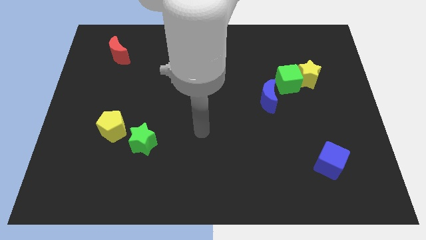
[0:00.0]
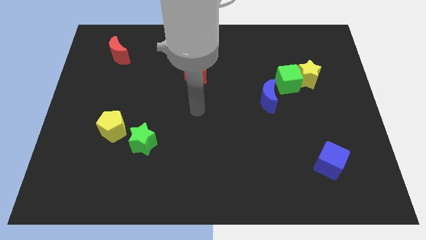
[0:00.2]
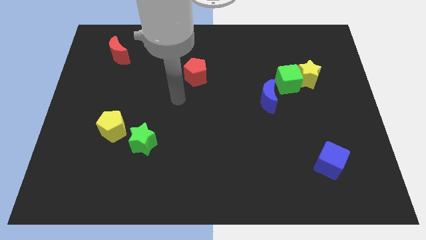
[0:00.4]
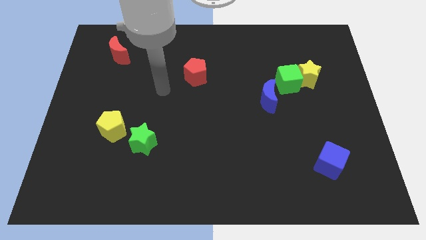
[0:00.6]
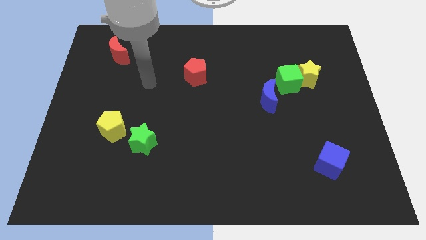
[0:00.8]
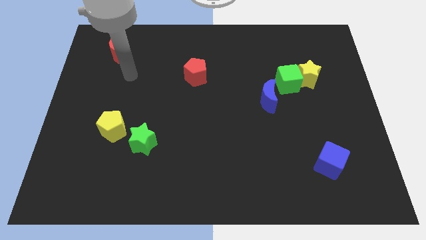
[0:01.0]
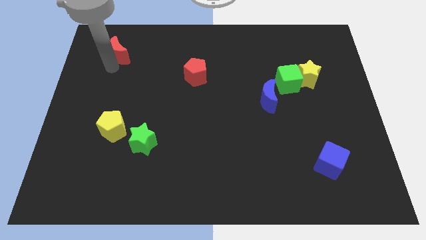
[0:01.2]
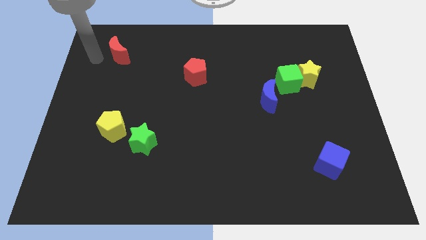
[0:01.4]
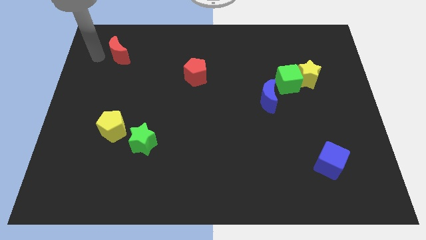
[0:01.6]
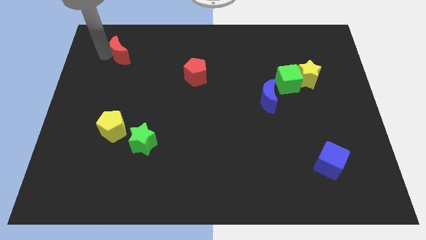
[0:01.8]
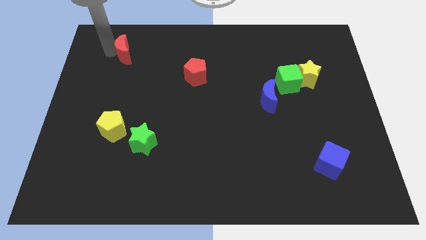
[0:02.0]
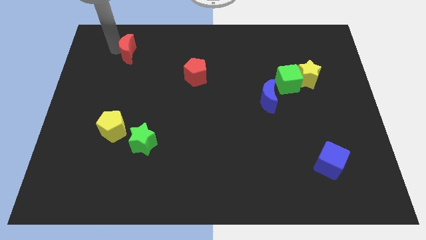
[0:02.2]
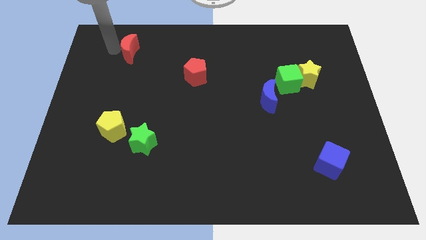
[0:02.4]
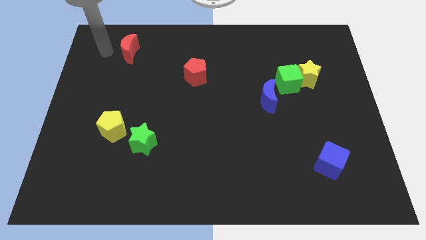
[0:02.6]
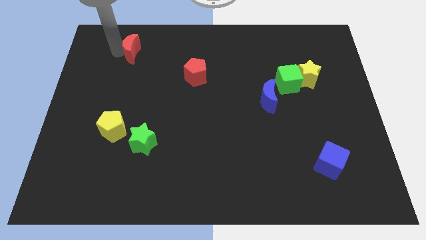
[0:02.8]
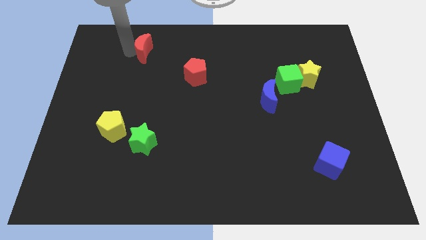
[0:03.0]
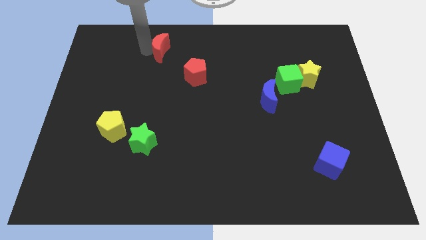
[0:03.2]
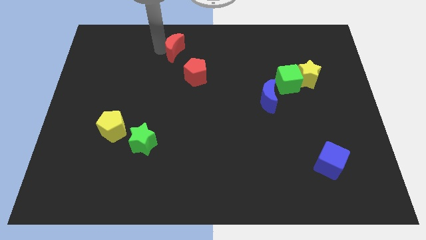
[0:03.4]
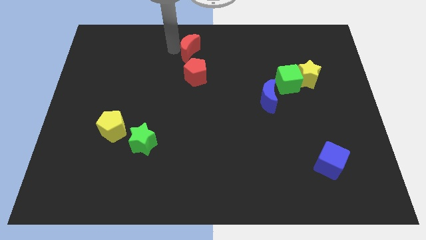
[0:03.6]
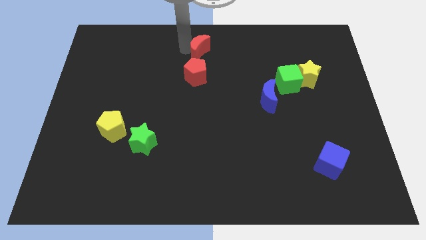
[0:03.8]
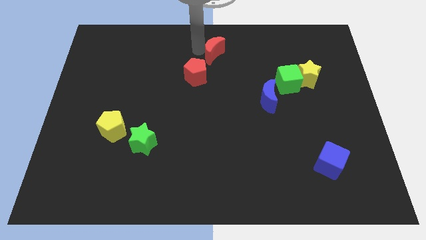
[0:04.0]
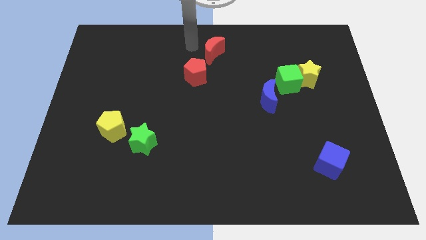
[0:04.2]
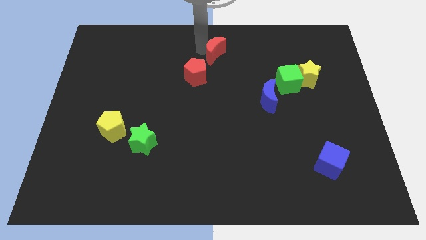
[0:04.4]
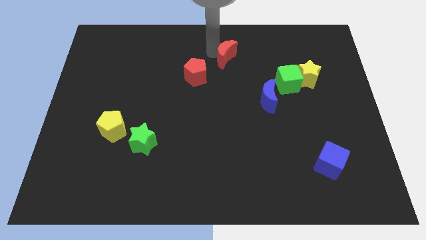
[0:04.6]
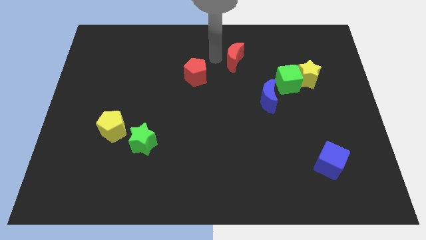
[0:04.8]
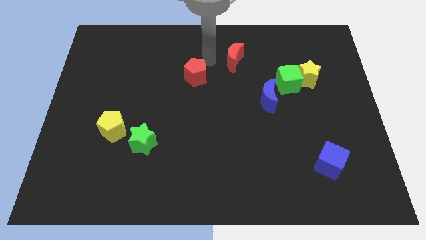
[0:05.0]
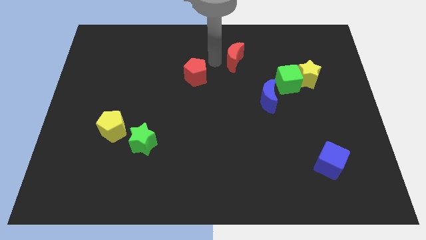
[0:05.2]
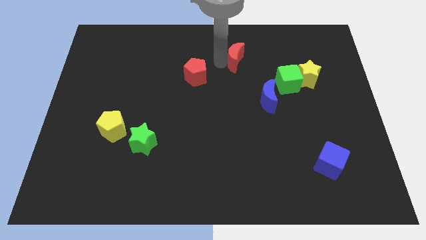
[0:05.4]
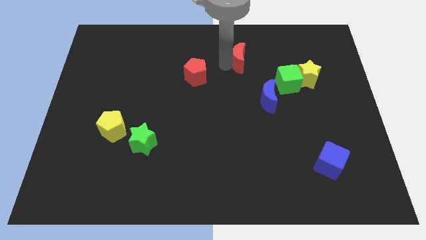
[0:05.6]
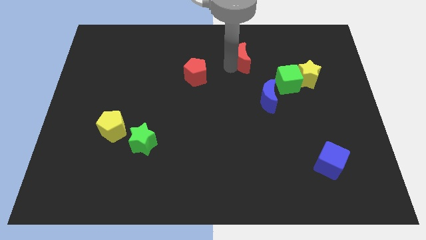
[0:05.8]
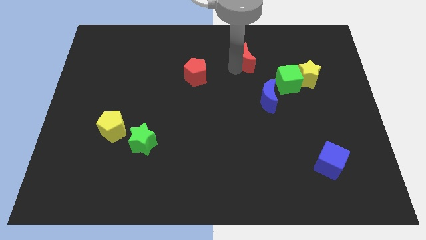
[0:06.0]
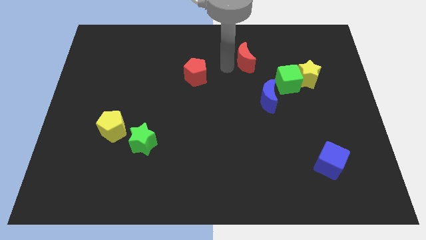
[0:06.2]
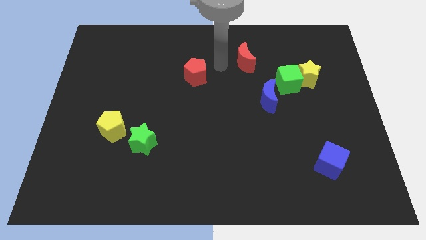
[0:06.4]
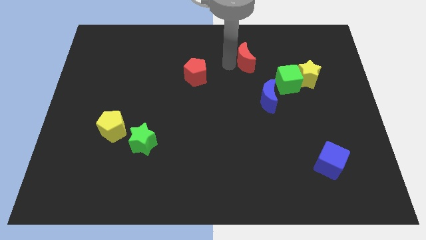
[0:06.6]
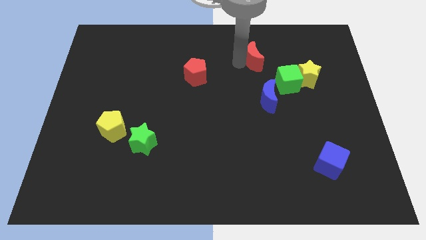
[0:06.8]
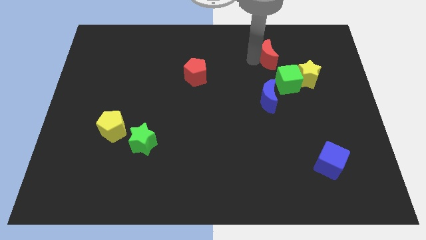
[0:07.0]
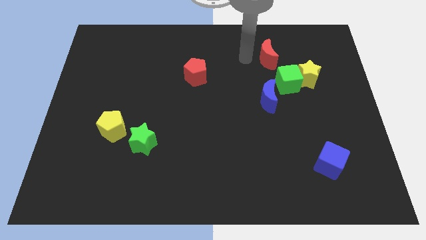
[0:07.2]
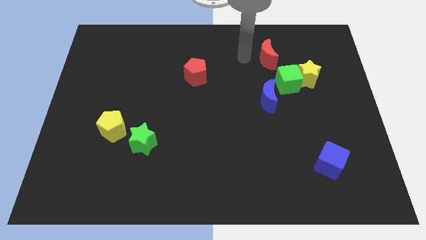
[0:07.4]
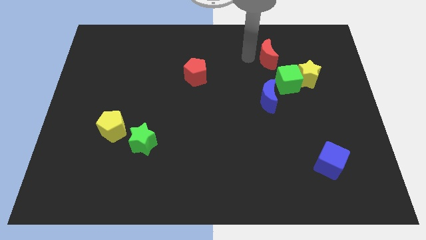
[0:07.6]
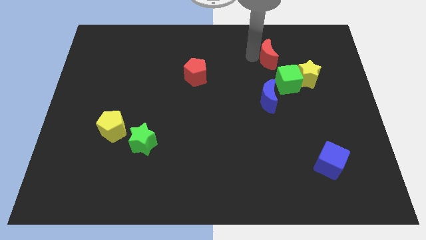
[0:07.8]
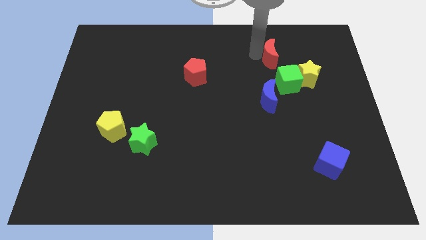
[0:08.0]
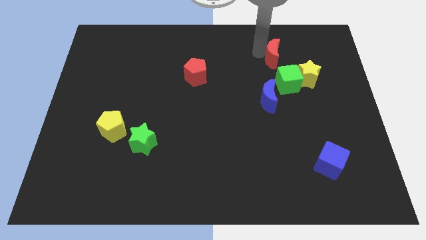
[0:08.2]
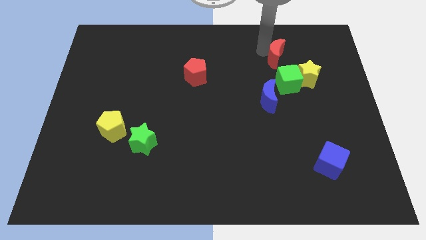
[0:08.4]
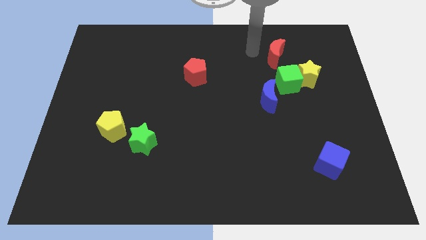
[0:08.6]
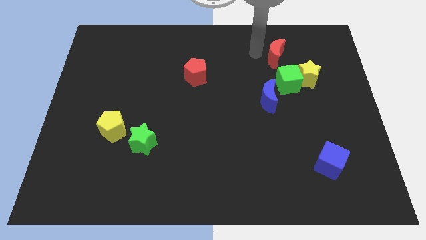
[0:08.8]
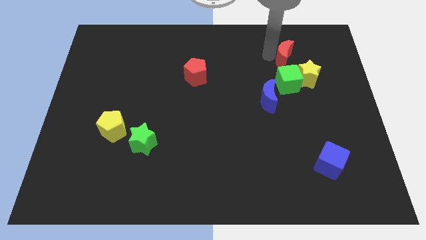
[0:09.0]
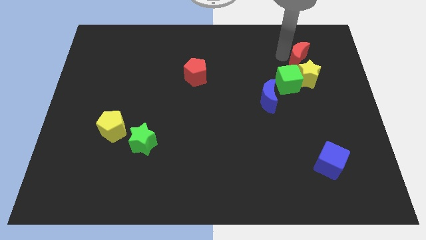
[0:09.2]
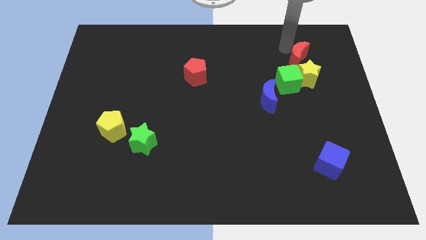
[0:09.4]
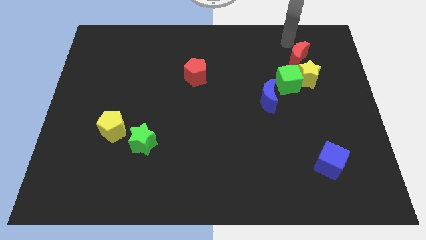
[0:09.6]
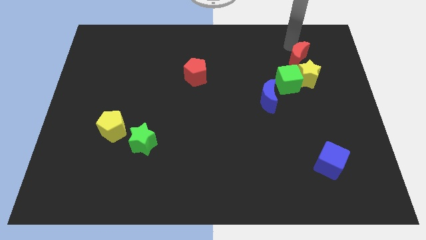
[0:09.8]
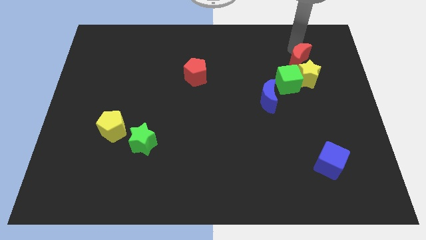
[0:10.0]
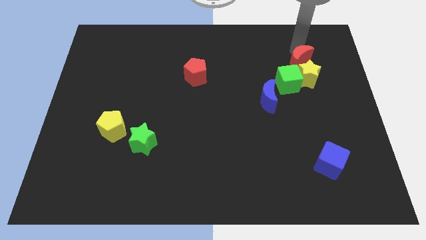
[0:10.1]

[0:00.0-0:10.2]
move the red moon towards the yellow star

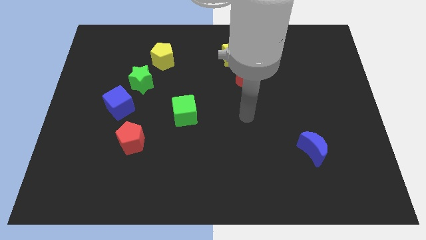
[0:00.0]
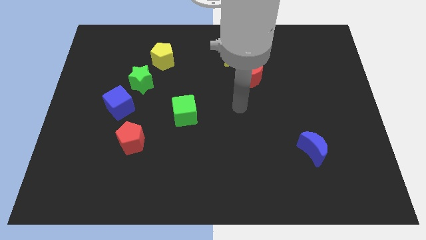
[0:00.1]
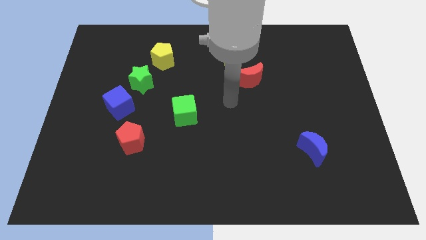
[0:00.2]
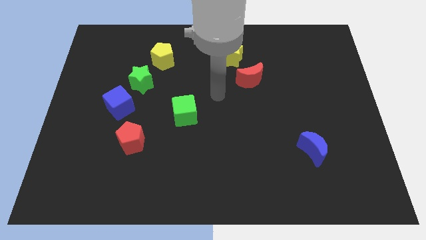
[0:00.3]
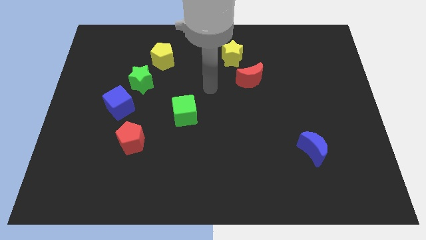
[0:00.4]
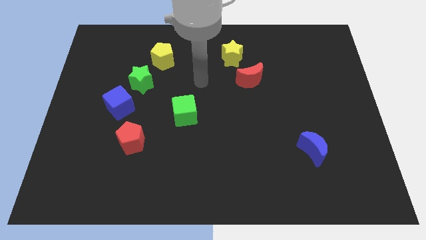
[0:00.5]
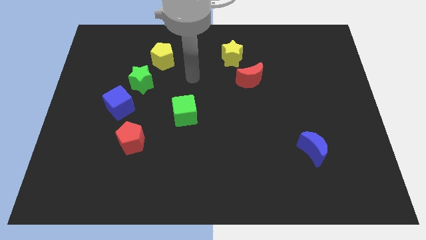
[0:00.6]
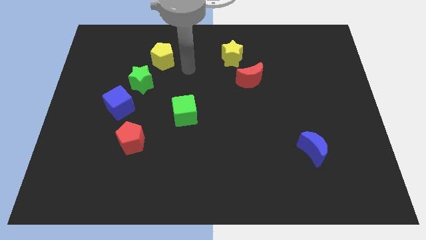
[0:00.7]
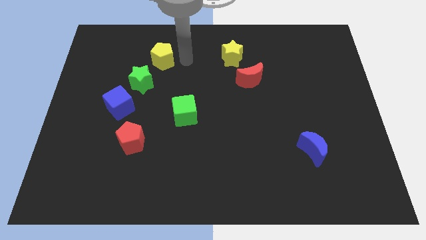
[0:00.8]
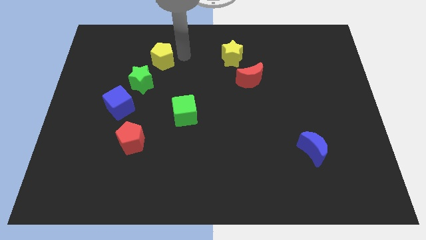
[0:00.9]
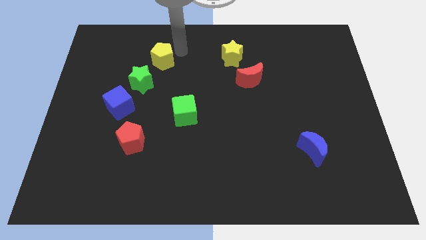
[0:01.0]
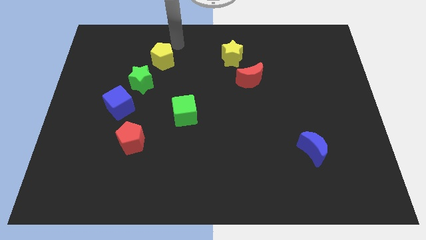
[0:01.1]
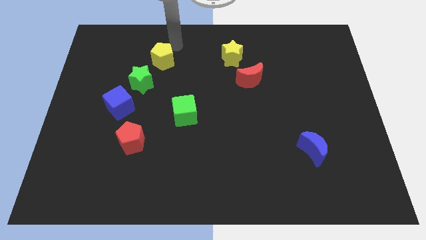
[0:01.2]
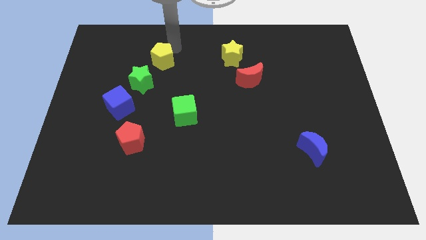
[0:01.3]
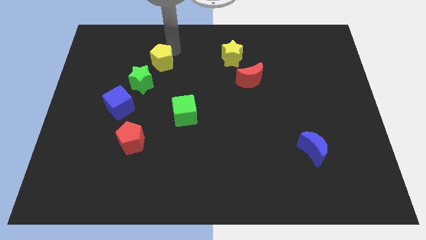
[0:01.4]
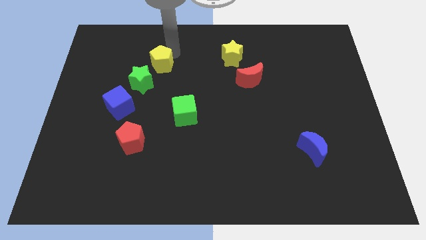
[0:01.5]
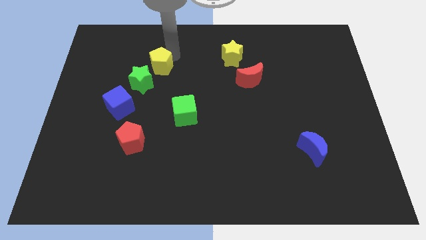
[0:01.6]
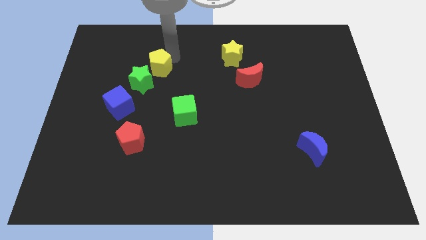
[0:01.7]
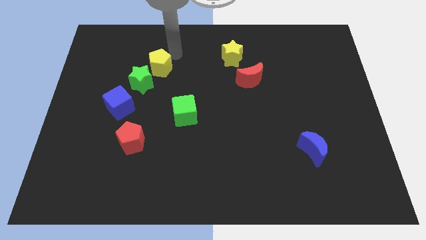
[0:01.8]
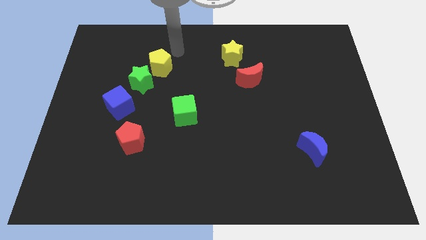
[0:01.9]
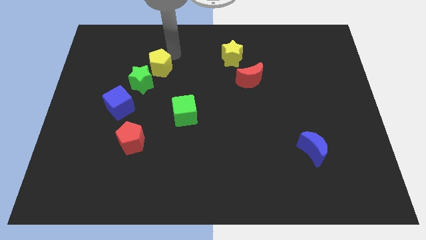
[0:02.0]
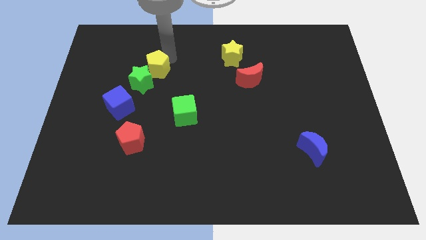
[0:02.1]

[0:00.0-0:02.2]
move the yellow pentagon next to the green star
